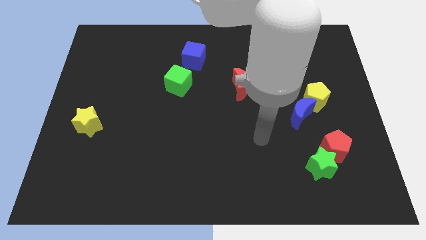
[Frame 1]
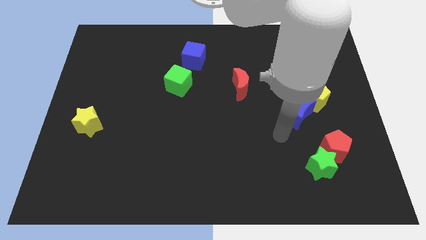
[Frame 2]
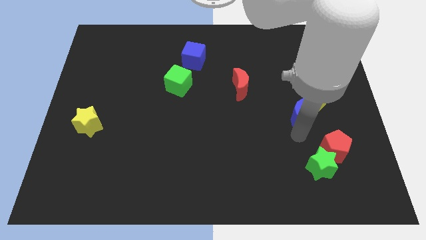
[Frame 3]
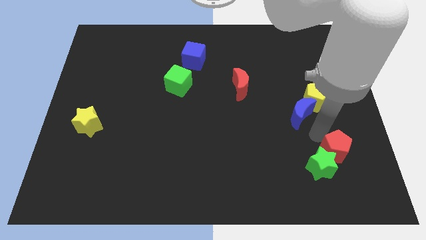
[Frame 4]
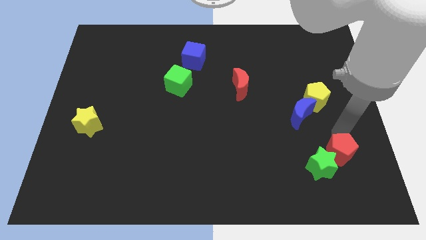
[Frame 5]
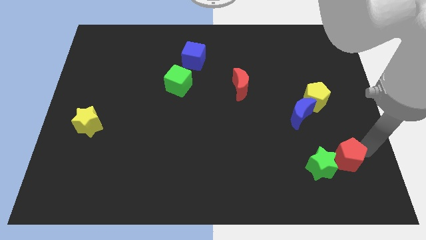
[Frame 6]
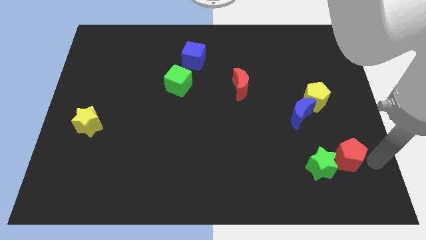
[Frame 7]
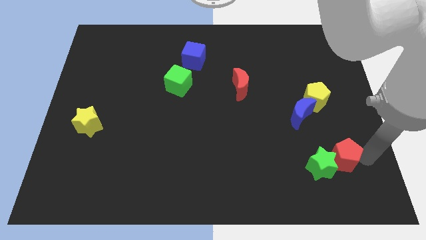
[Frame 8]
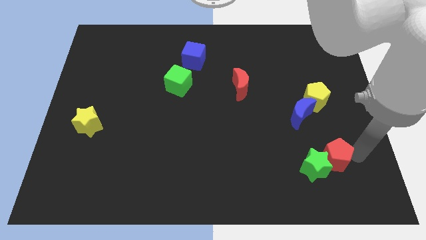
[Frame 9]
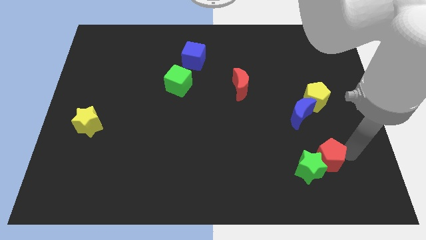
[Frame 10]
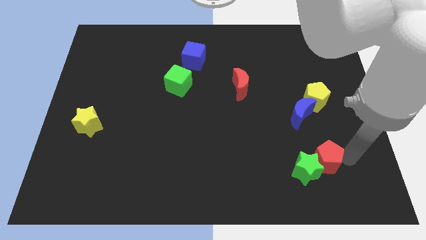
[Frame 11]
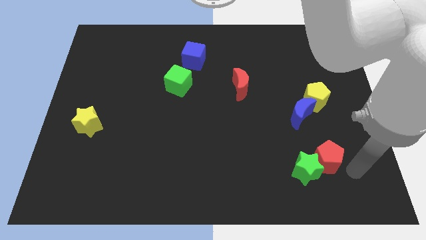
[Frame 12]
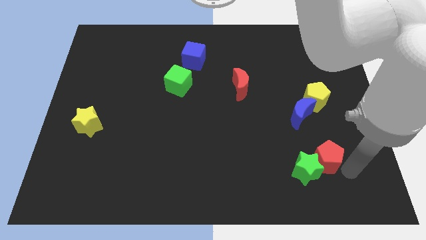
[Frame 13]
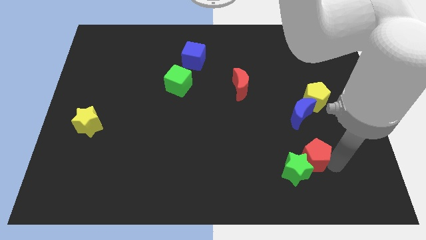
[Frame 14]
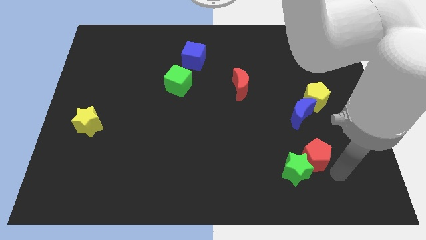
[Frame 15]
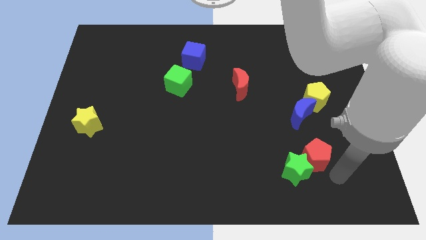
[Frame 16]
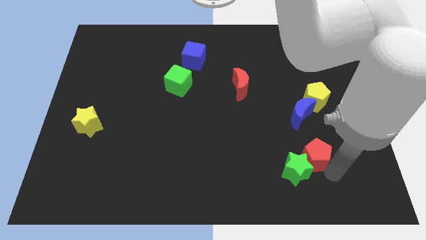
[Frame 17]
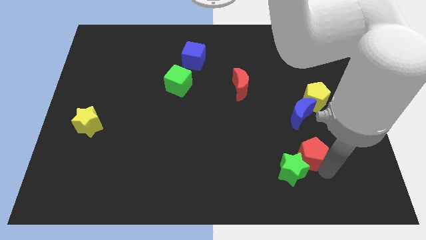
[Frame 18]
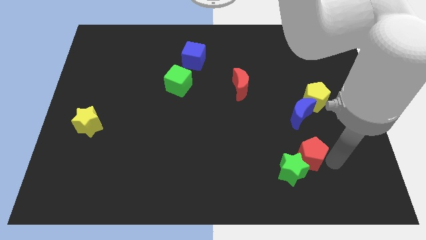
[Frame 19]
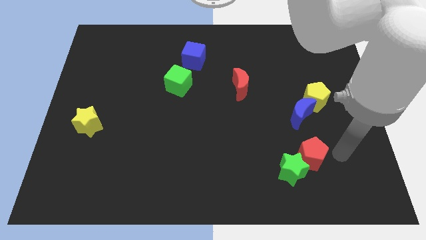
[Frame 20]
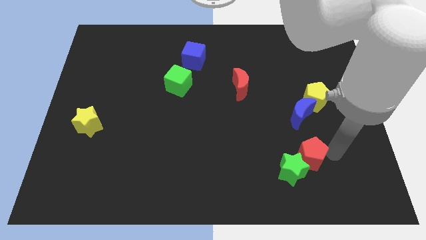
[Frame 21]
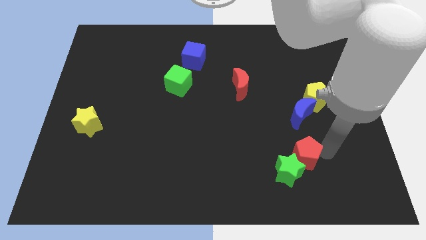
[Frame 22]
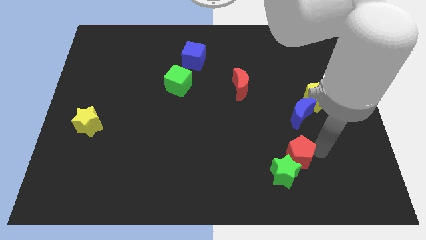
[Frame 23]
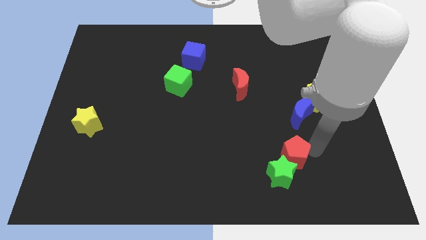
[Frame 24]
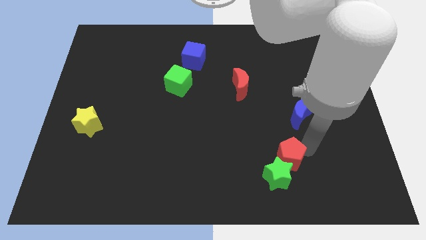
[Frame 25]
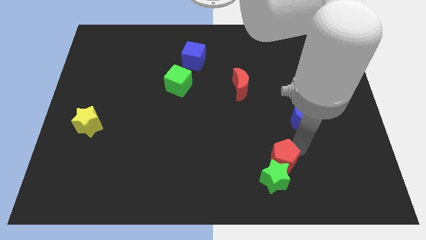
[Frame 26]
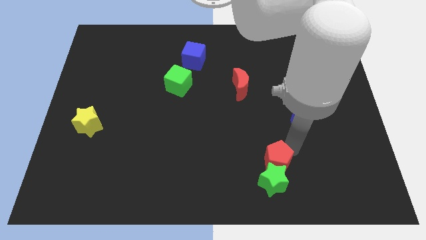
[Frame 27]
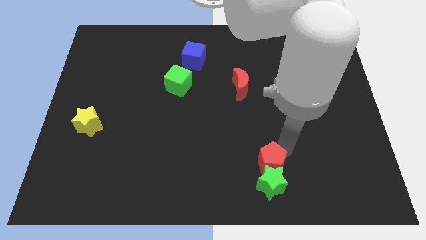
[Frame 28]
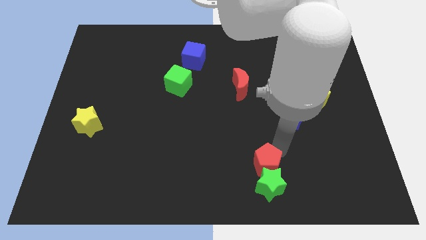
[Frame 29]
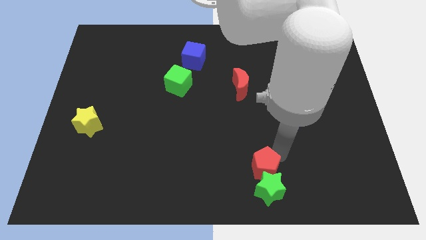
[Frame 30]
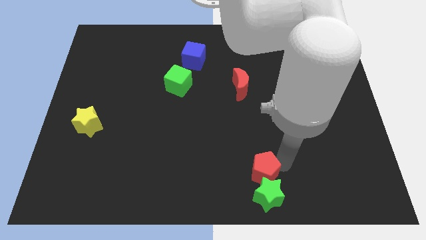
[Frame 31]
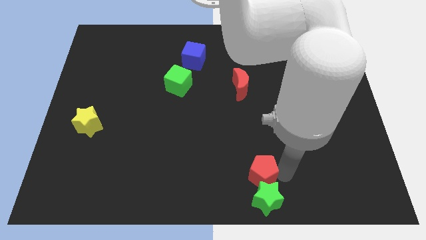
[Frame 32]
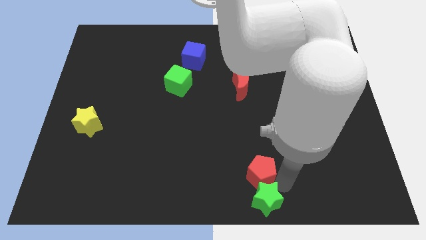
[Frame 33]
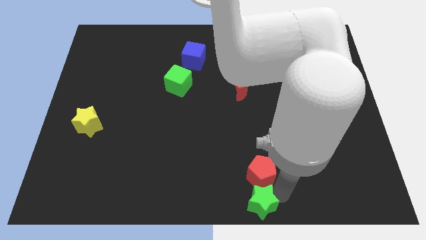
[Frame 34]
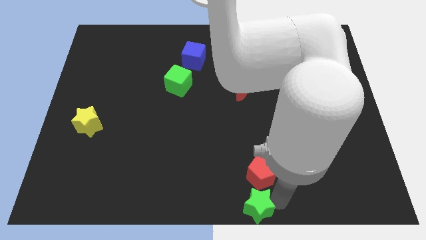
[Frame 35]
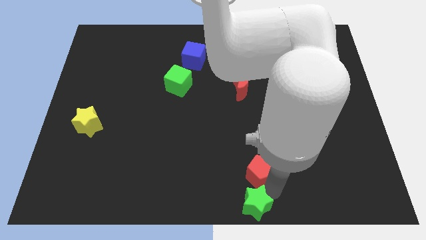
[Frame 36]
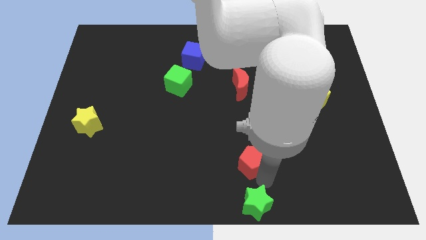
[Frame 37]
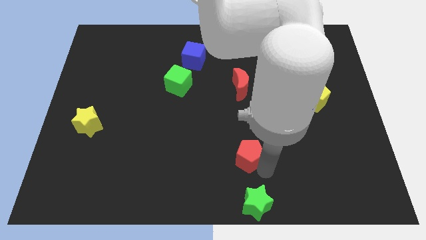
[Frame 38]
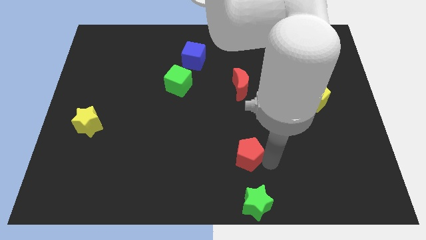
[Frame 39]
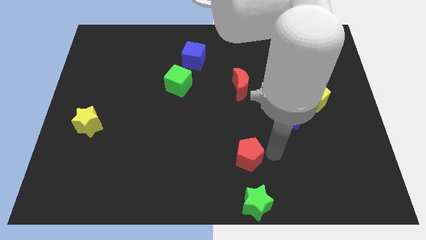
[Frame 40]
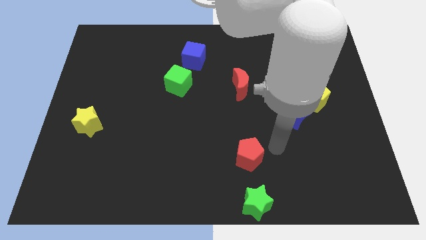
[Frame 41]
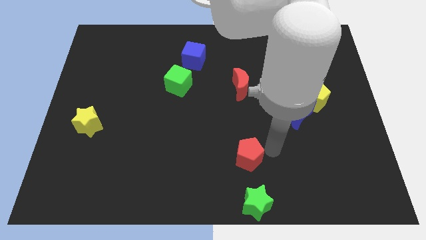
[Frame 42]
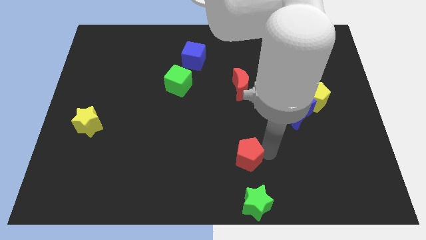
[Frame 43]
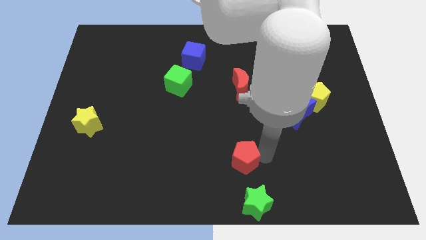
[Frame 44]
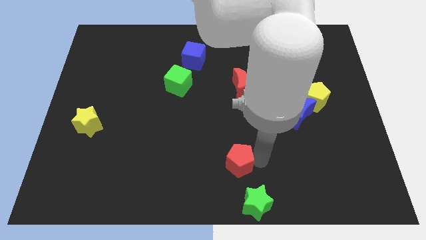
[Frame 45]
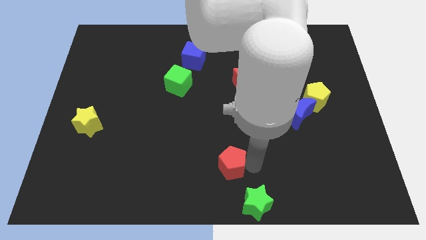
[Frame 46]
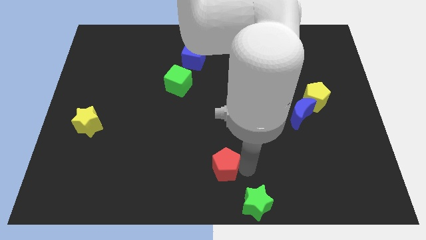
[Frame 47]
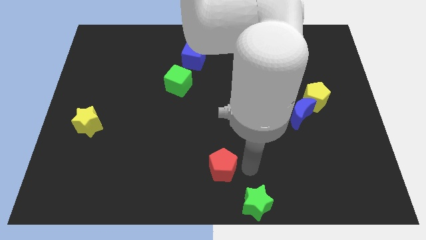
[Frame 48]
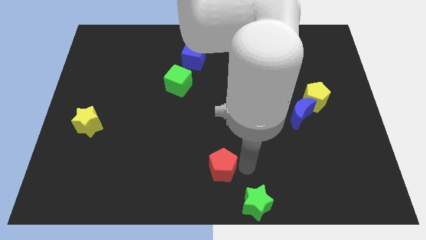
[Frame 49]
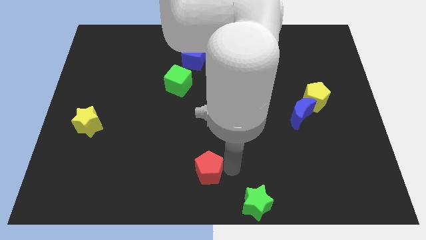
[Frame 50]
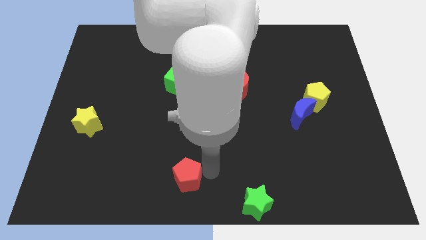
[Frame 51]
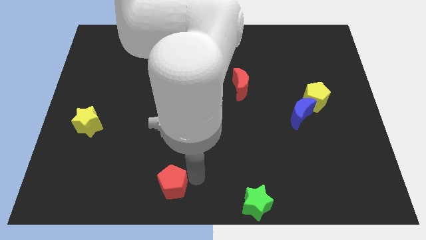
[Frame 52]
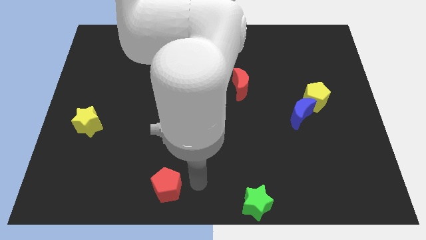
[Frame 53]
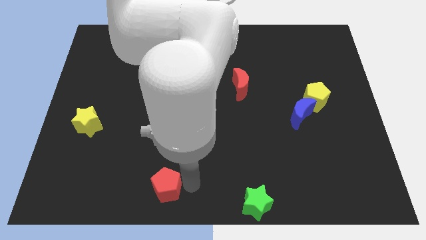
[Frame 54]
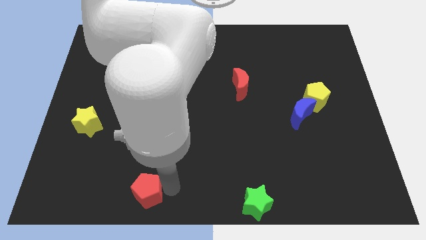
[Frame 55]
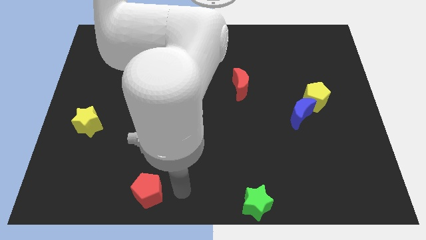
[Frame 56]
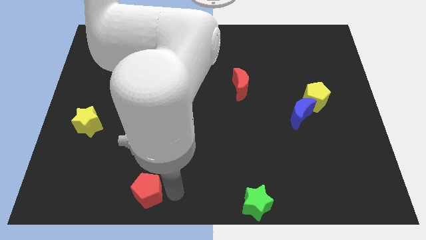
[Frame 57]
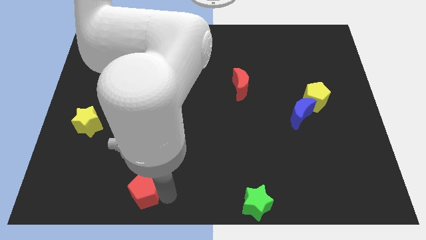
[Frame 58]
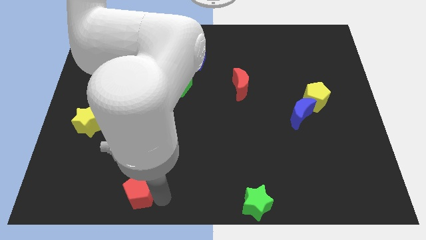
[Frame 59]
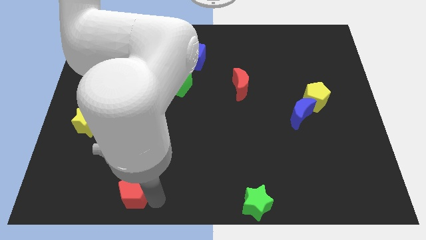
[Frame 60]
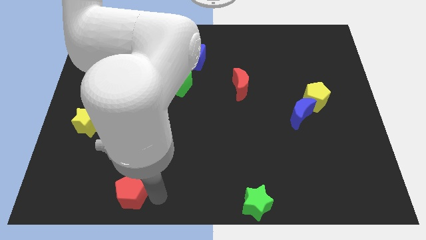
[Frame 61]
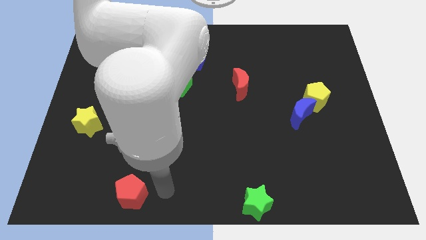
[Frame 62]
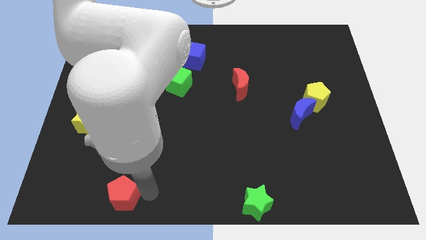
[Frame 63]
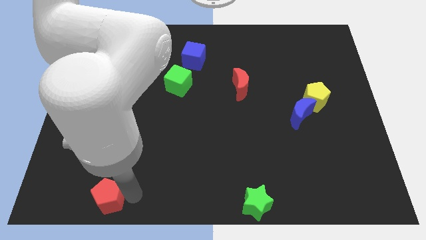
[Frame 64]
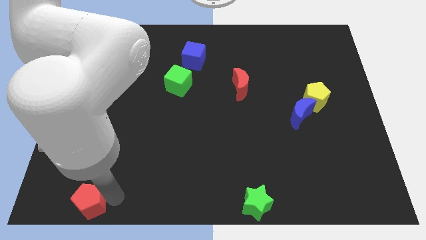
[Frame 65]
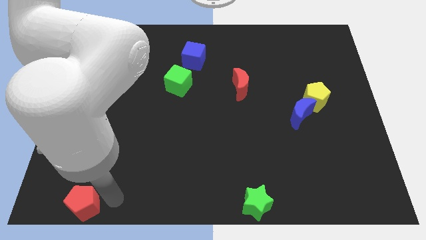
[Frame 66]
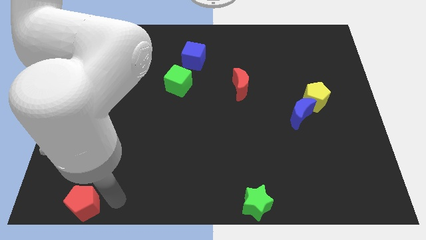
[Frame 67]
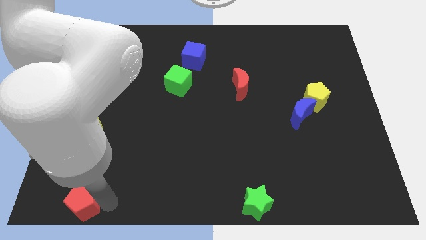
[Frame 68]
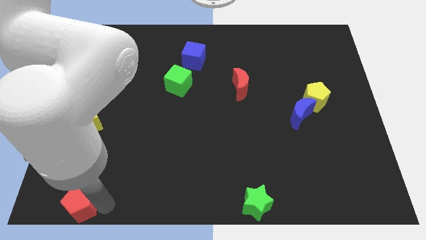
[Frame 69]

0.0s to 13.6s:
move the red pentagon to the bottom left
